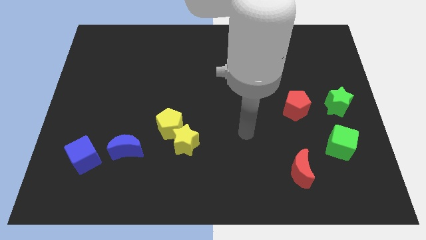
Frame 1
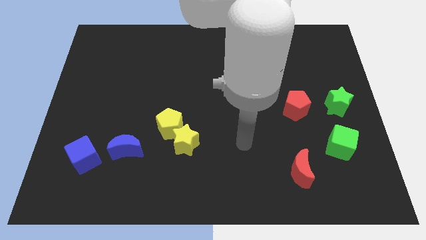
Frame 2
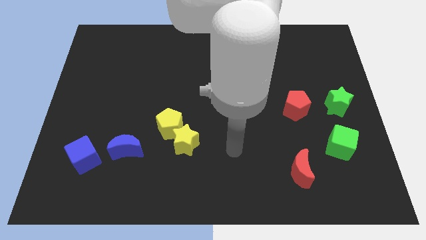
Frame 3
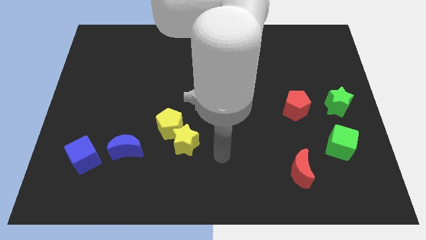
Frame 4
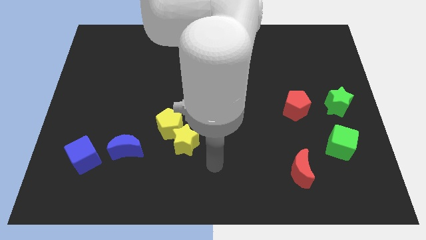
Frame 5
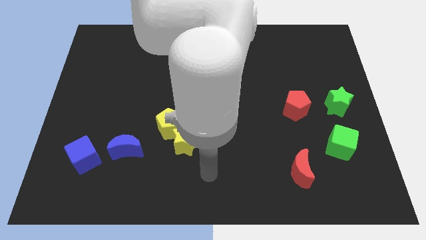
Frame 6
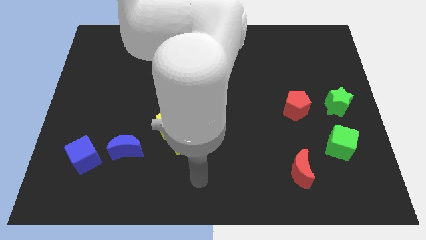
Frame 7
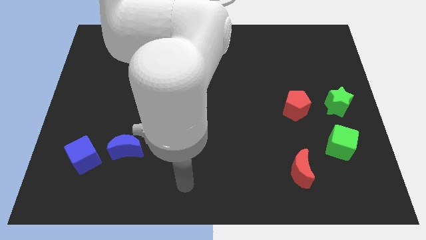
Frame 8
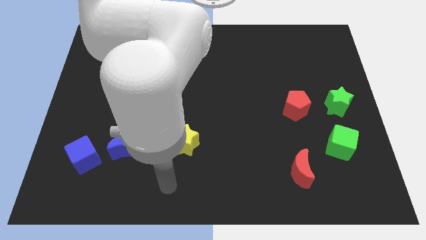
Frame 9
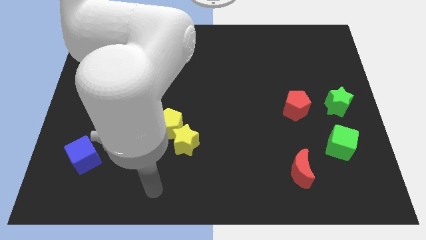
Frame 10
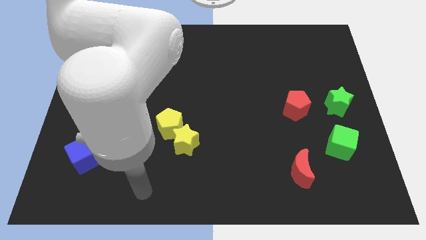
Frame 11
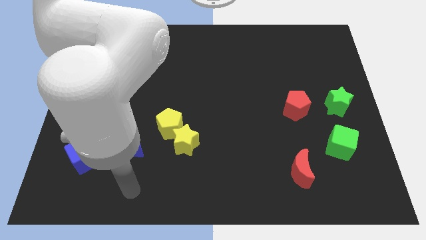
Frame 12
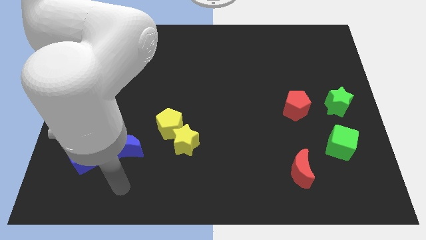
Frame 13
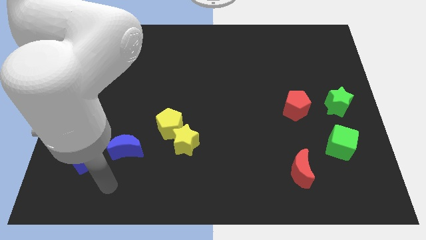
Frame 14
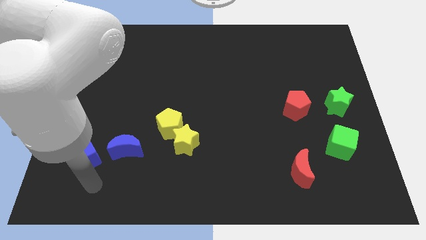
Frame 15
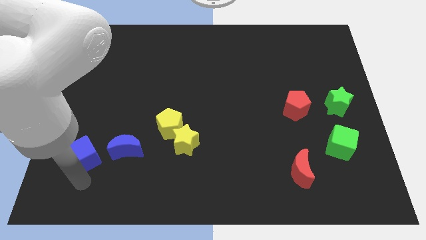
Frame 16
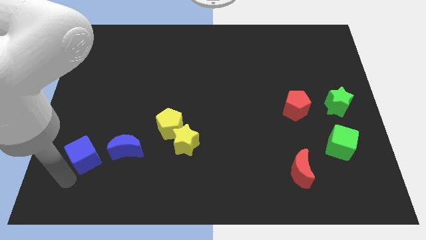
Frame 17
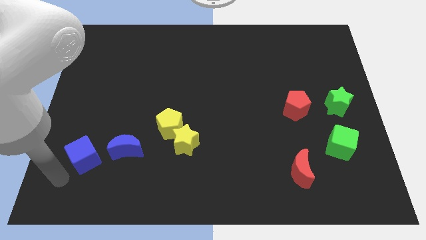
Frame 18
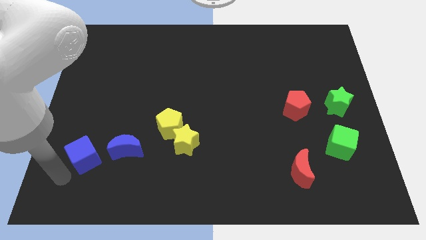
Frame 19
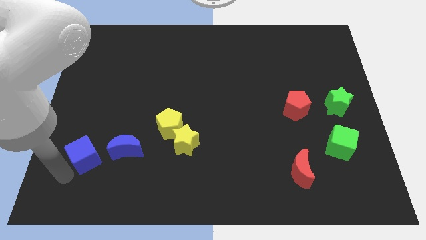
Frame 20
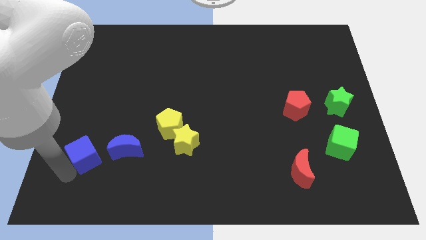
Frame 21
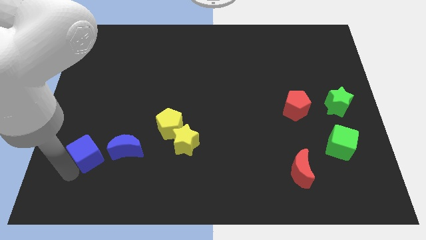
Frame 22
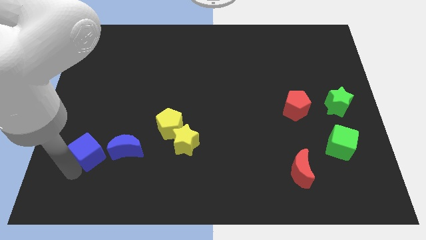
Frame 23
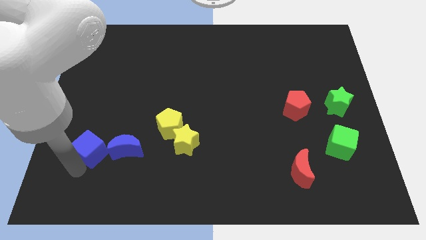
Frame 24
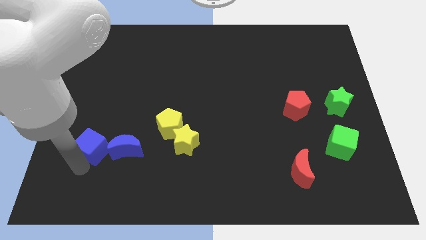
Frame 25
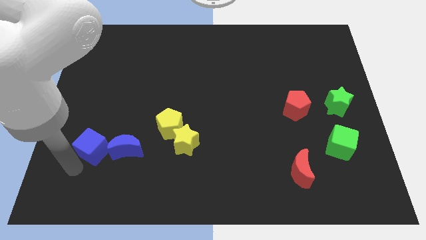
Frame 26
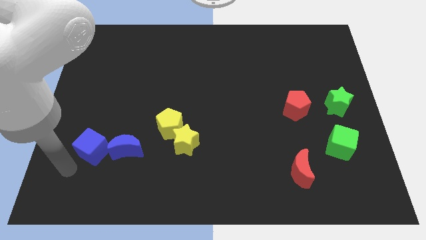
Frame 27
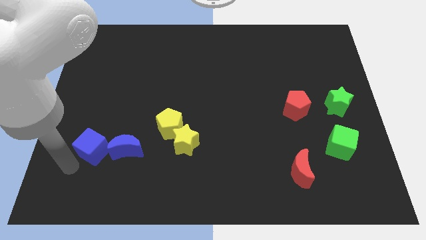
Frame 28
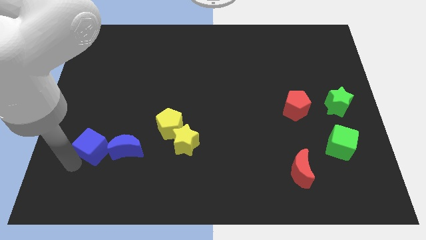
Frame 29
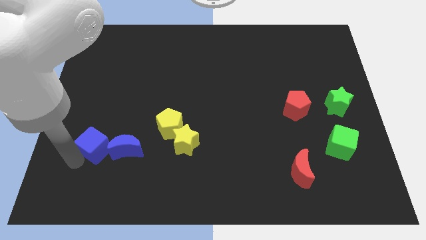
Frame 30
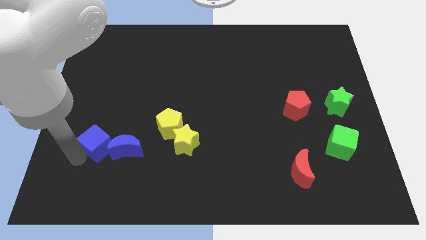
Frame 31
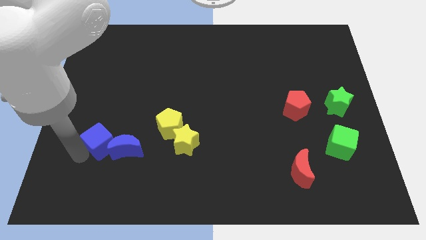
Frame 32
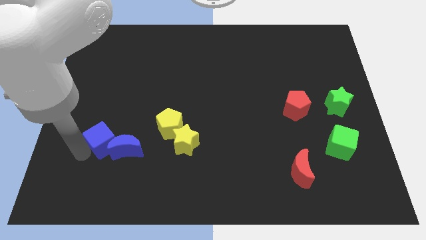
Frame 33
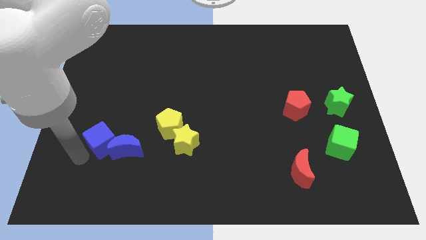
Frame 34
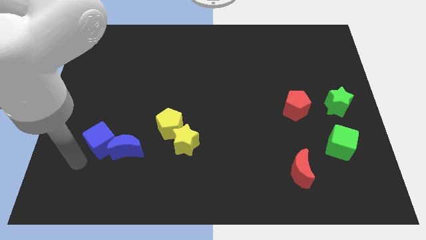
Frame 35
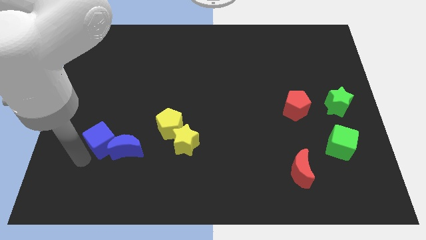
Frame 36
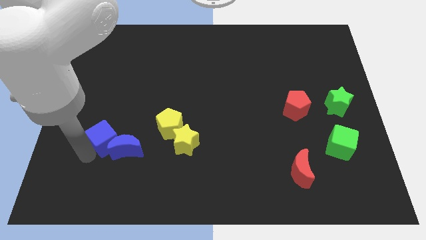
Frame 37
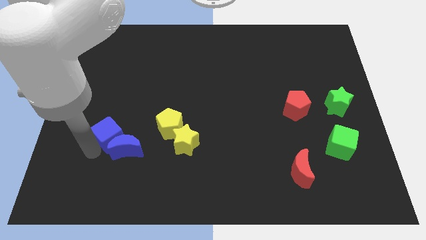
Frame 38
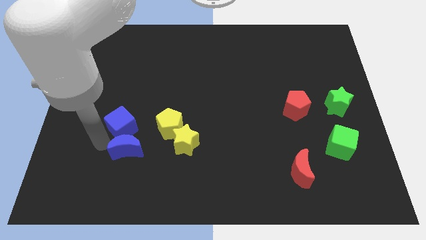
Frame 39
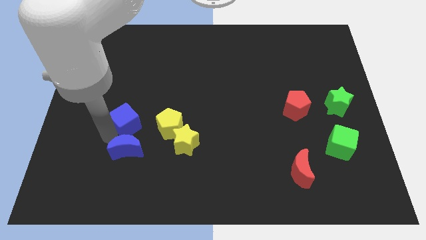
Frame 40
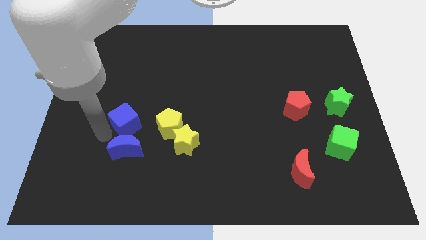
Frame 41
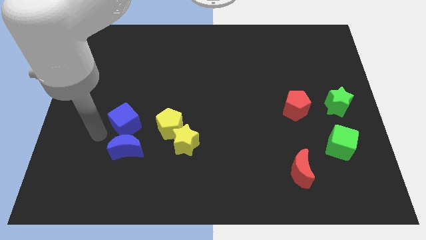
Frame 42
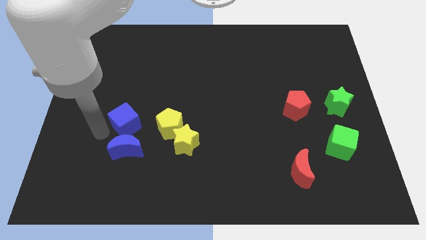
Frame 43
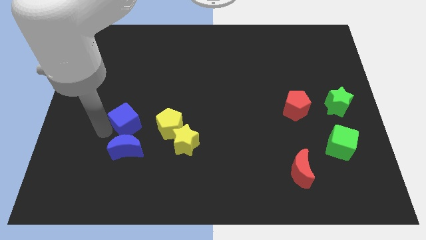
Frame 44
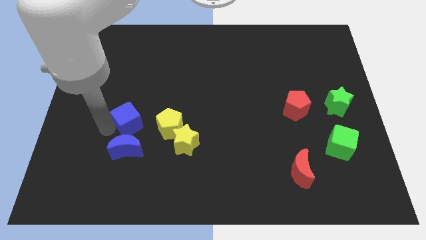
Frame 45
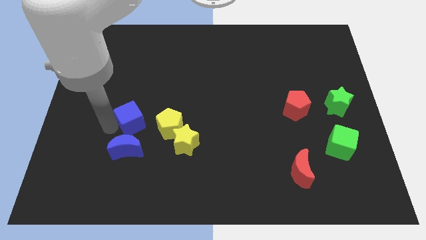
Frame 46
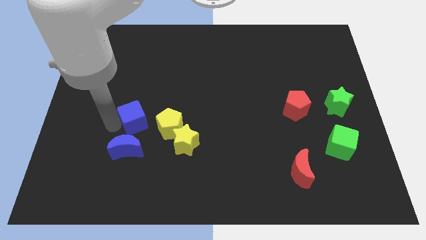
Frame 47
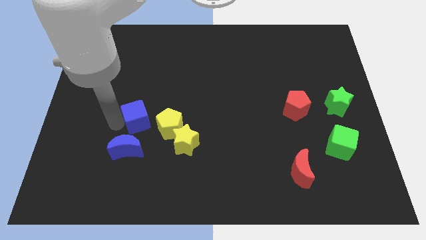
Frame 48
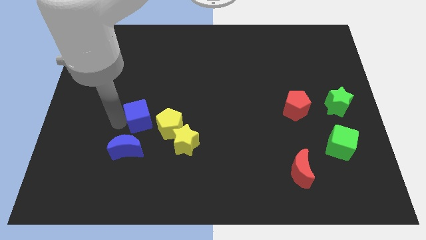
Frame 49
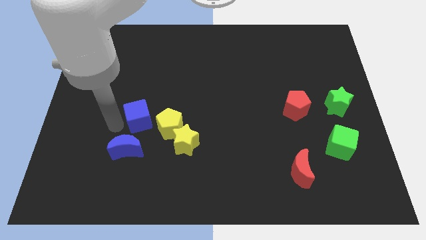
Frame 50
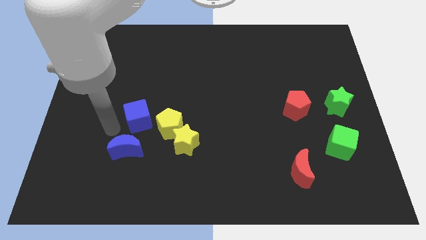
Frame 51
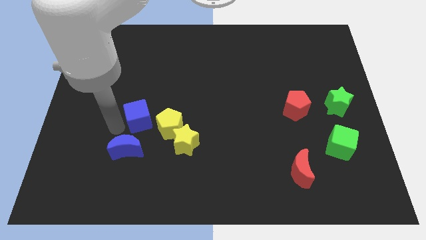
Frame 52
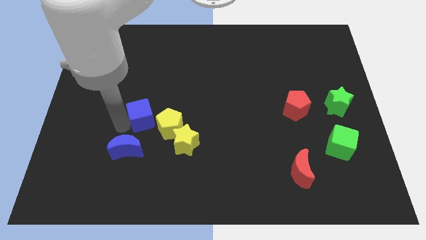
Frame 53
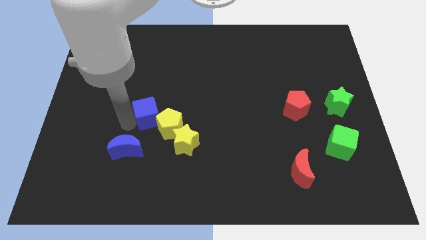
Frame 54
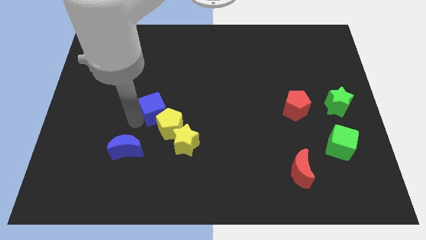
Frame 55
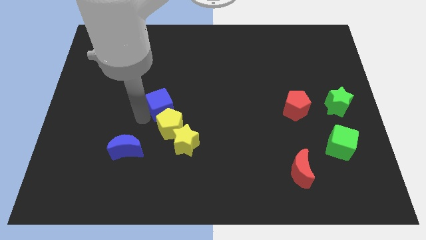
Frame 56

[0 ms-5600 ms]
move the blue cube upwards and right diagonally

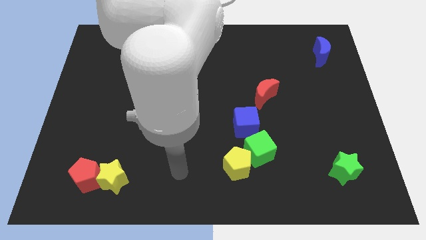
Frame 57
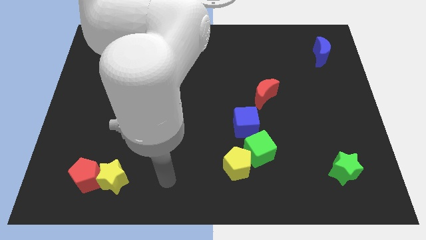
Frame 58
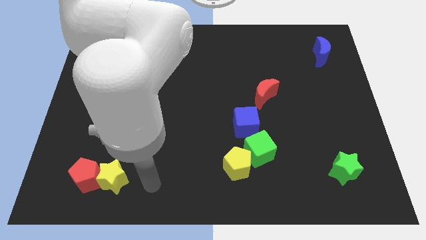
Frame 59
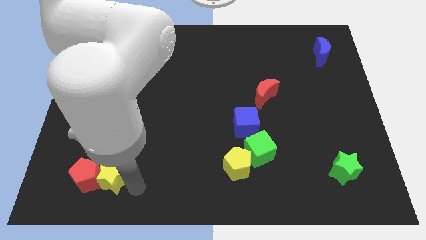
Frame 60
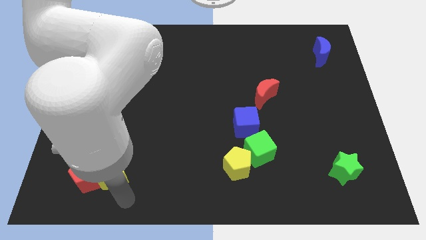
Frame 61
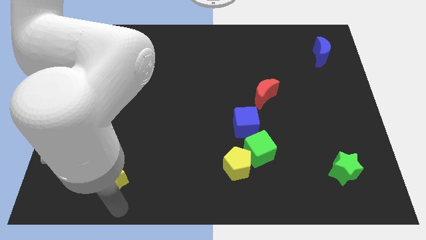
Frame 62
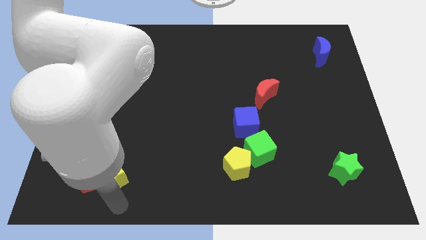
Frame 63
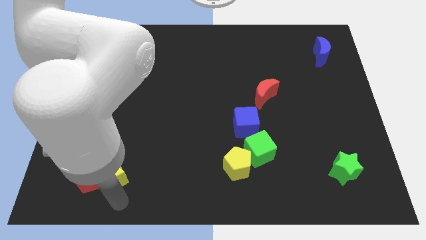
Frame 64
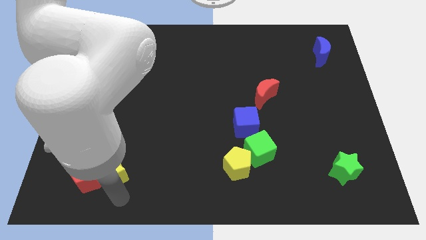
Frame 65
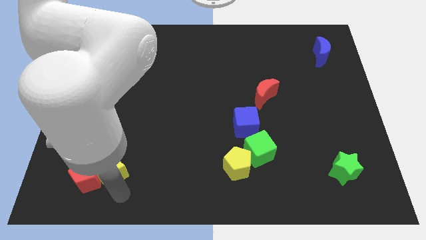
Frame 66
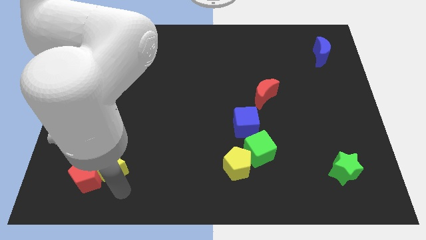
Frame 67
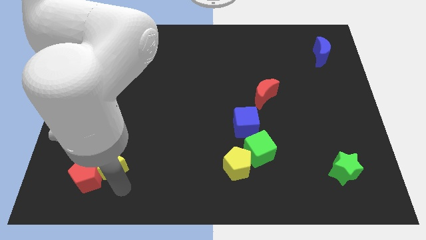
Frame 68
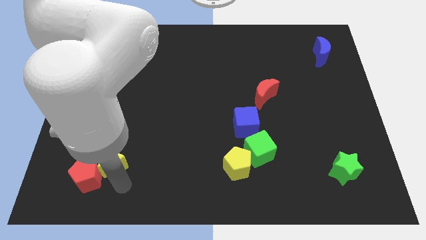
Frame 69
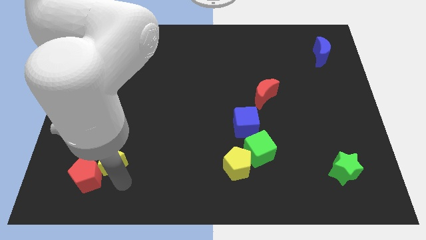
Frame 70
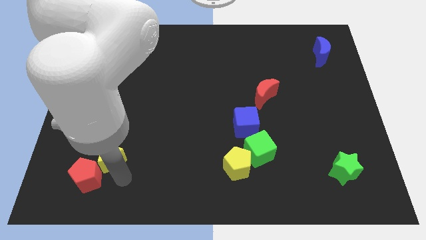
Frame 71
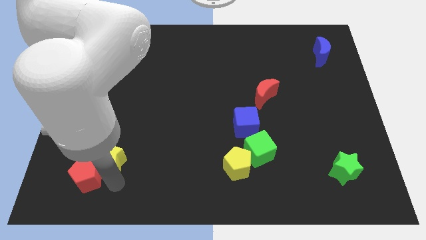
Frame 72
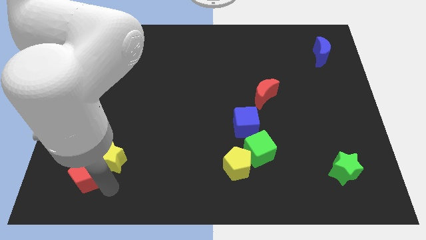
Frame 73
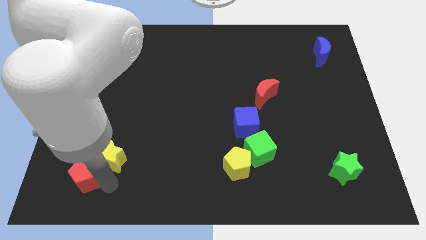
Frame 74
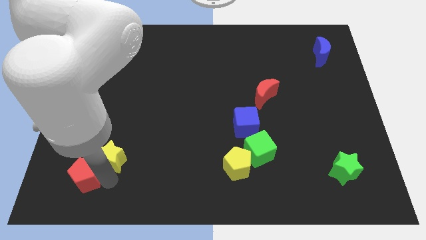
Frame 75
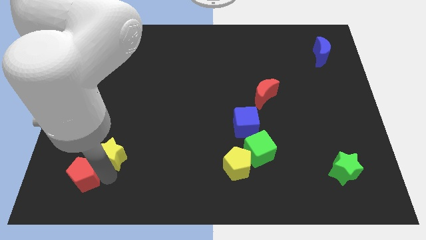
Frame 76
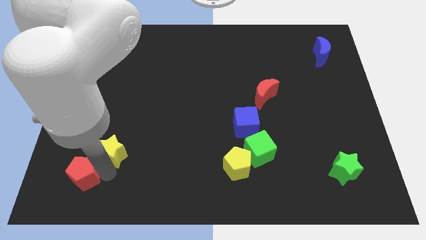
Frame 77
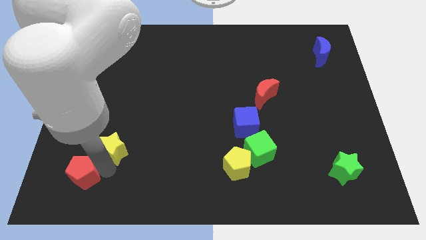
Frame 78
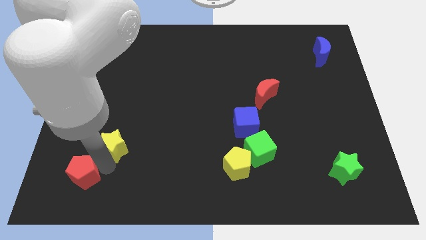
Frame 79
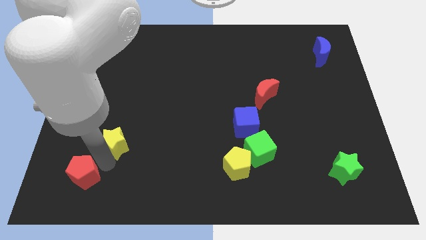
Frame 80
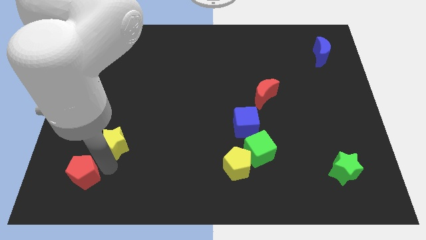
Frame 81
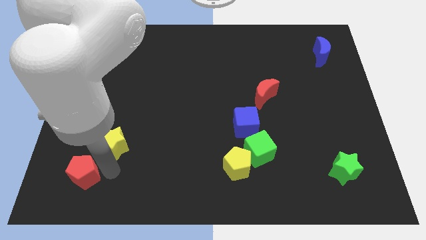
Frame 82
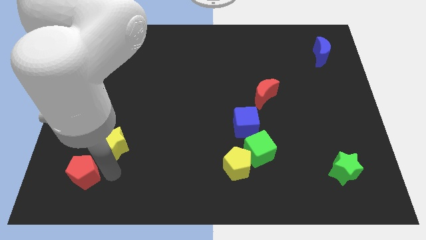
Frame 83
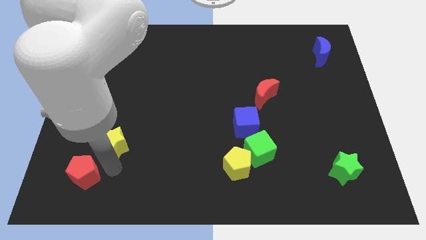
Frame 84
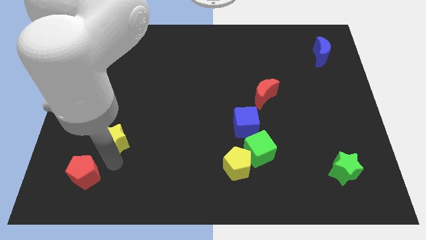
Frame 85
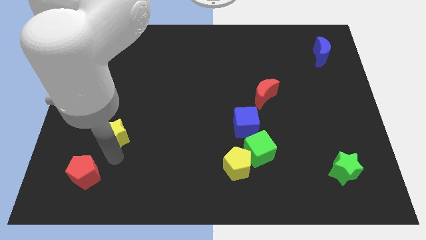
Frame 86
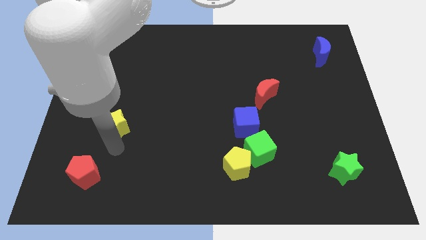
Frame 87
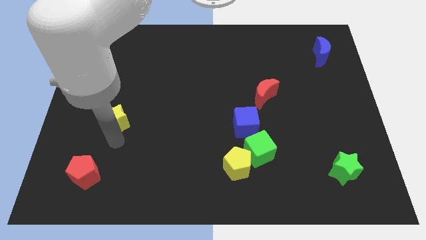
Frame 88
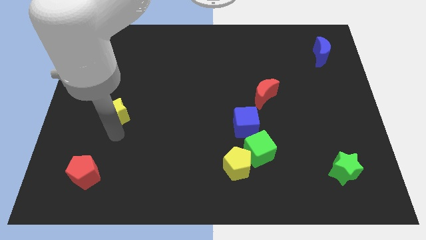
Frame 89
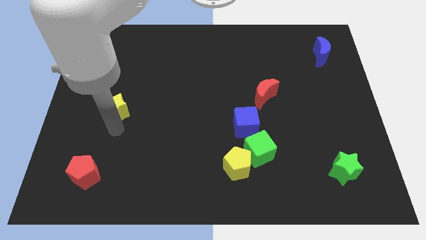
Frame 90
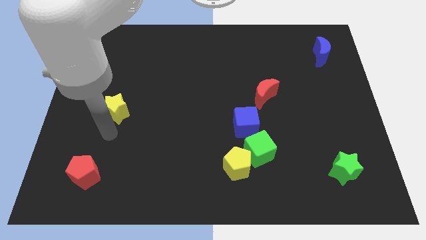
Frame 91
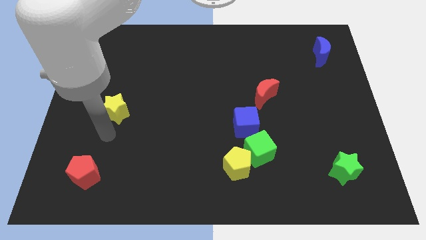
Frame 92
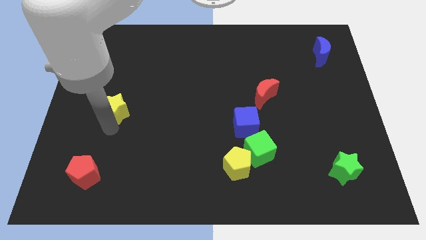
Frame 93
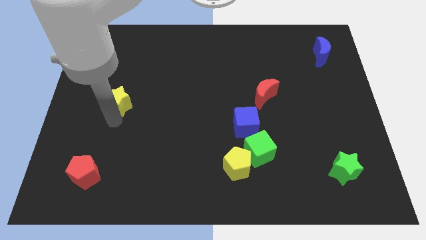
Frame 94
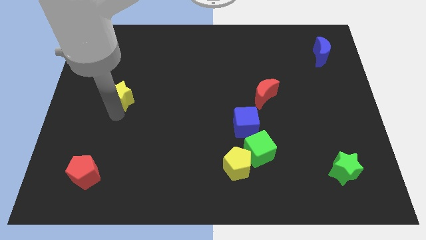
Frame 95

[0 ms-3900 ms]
push the yellow star up
